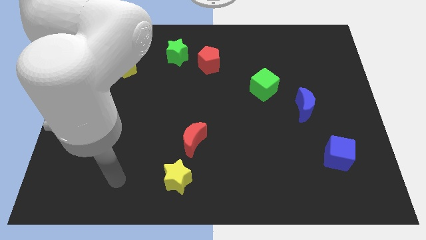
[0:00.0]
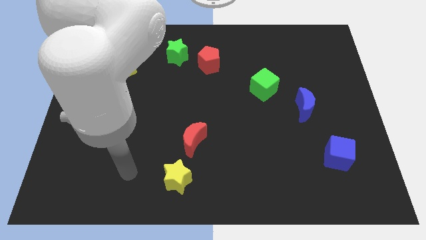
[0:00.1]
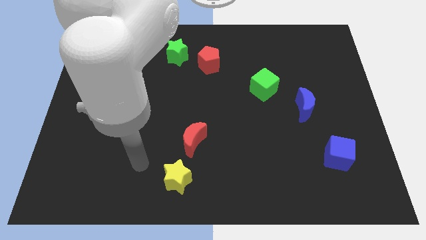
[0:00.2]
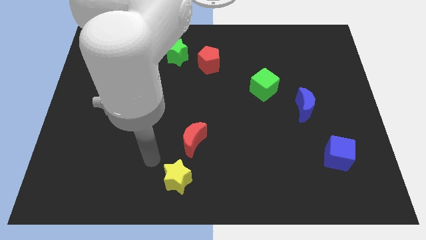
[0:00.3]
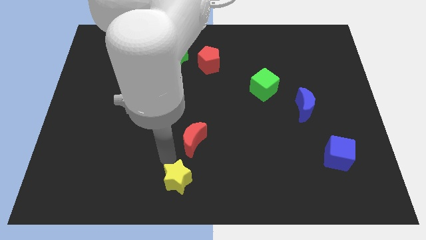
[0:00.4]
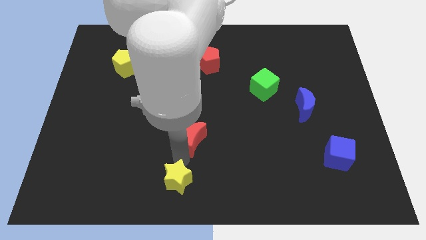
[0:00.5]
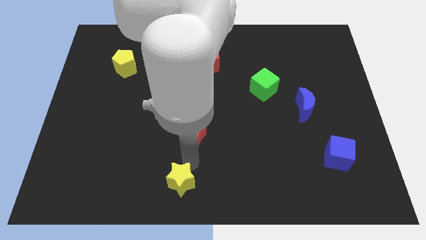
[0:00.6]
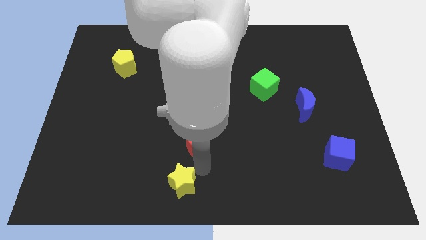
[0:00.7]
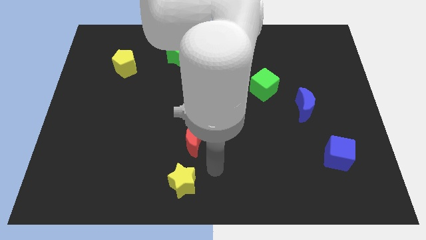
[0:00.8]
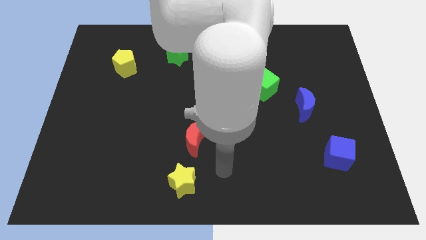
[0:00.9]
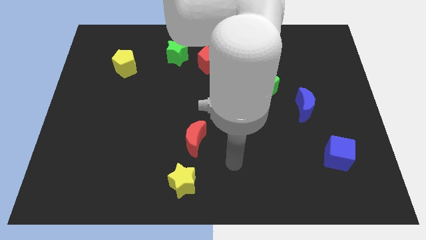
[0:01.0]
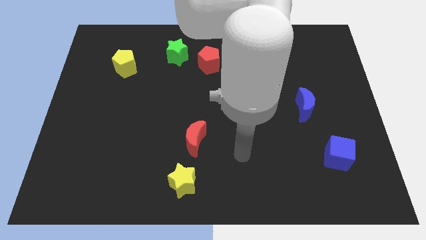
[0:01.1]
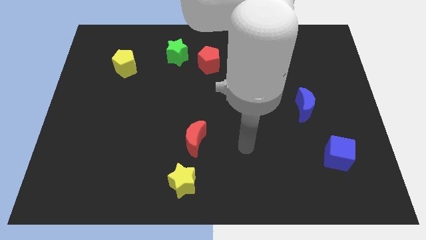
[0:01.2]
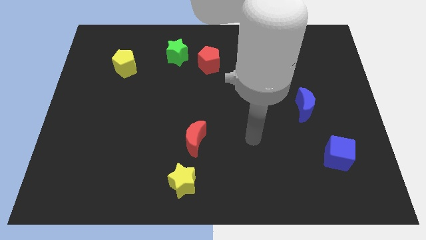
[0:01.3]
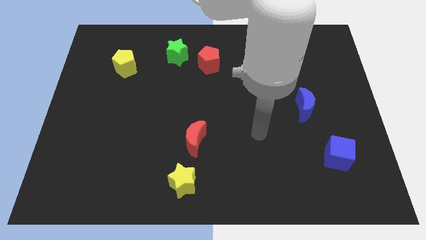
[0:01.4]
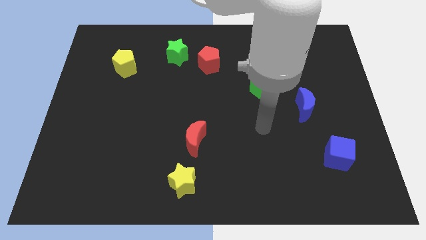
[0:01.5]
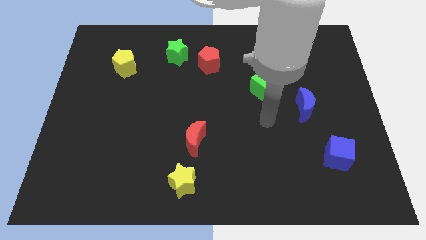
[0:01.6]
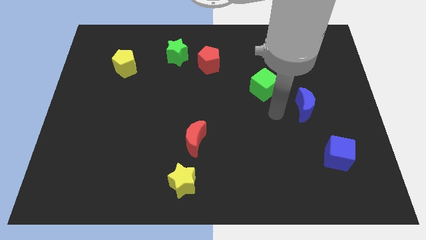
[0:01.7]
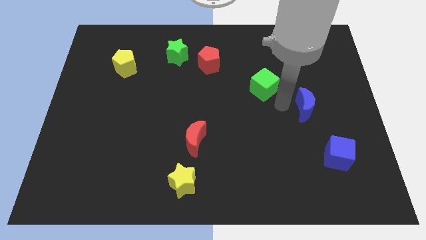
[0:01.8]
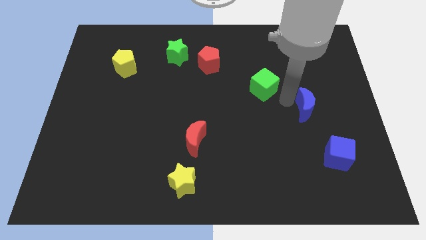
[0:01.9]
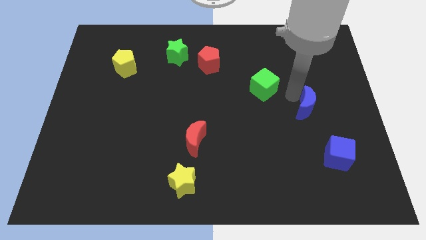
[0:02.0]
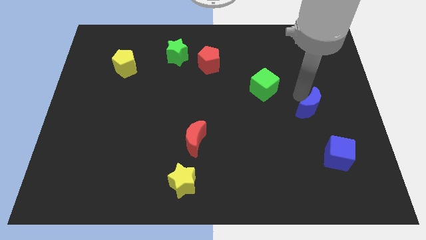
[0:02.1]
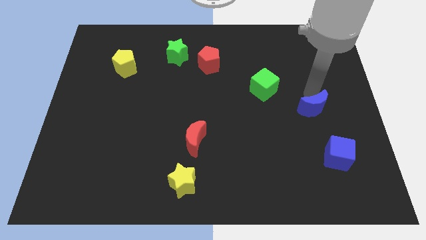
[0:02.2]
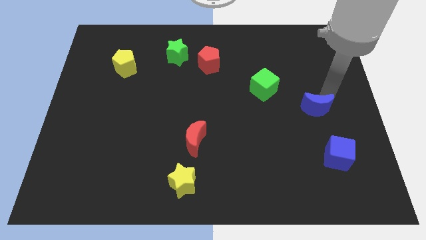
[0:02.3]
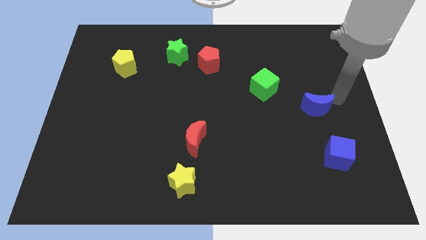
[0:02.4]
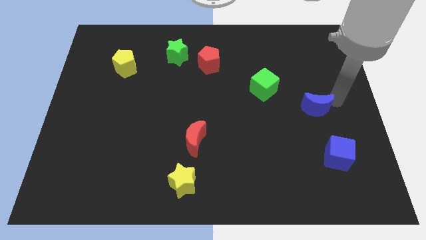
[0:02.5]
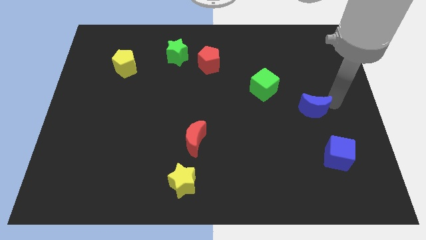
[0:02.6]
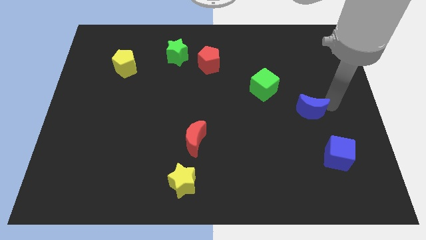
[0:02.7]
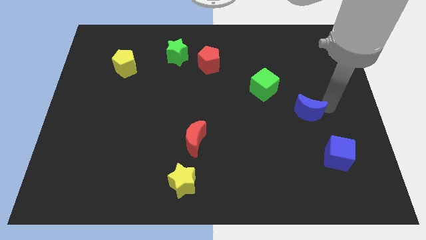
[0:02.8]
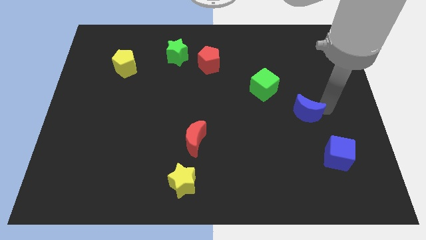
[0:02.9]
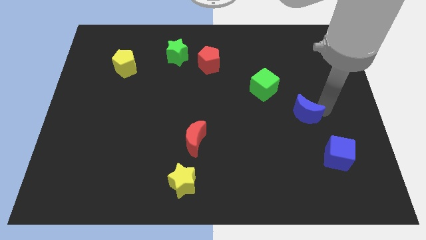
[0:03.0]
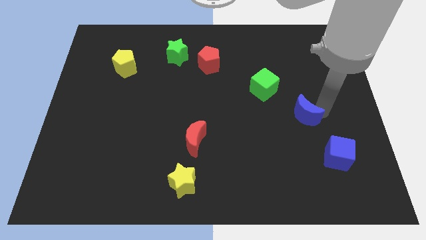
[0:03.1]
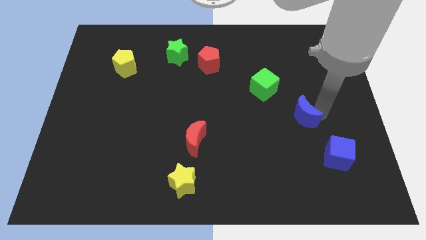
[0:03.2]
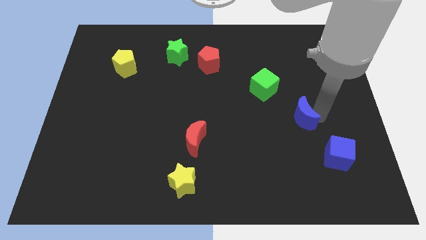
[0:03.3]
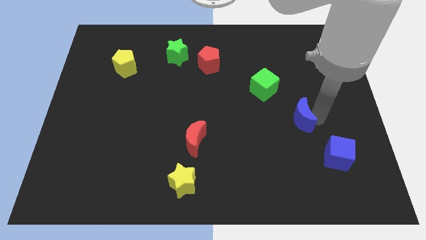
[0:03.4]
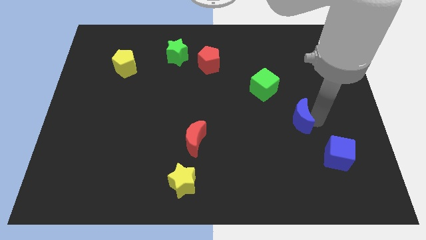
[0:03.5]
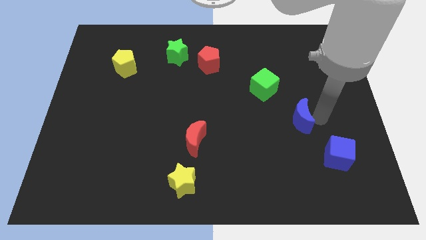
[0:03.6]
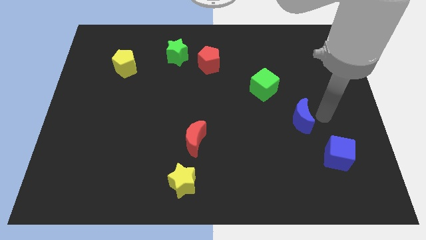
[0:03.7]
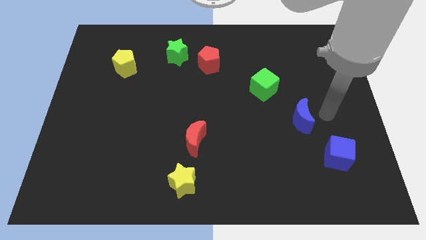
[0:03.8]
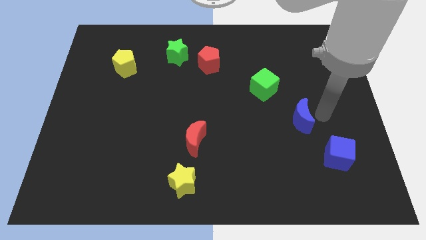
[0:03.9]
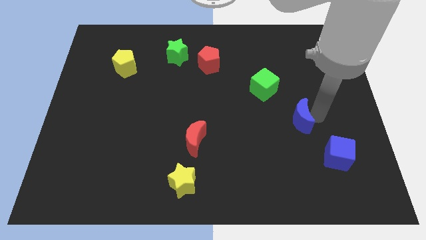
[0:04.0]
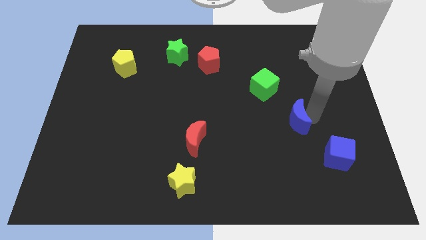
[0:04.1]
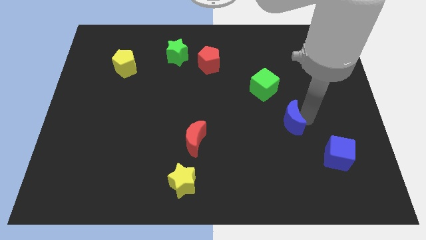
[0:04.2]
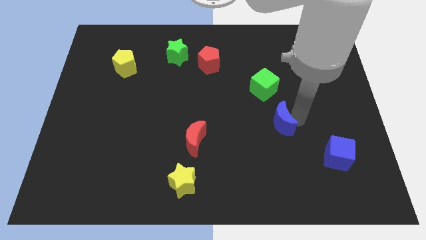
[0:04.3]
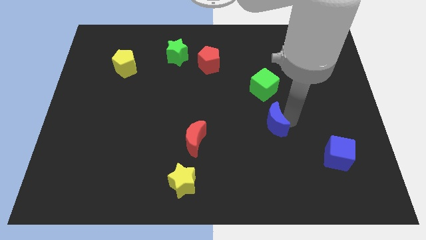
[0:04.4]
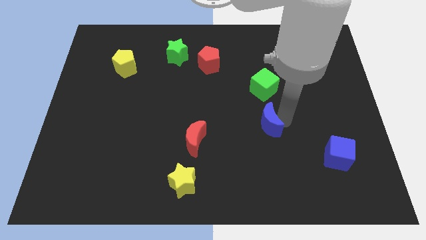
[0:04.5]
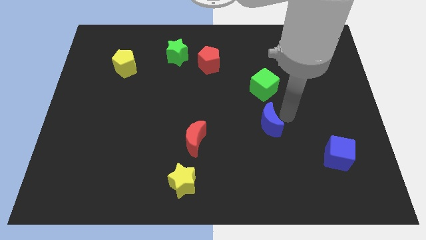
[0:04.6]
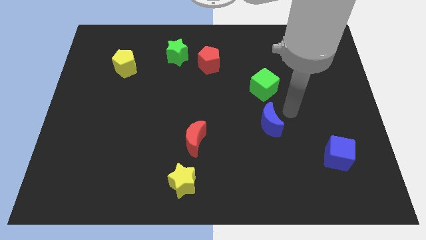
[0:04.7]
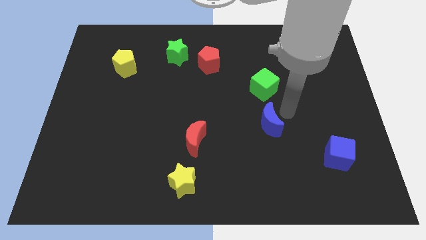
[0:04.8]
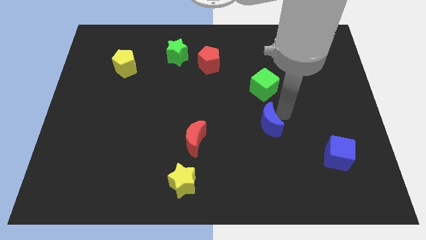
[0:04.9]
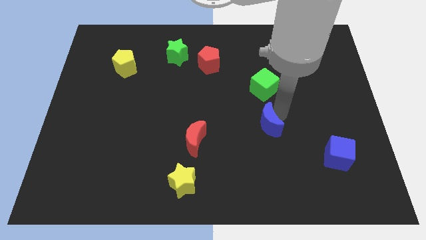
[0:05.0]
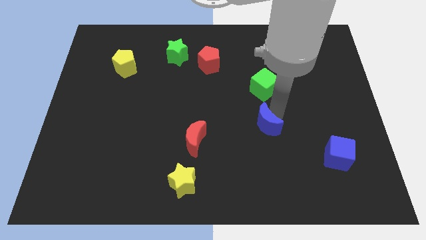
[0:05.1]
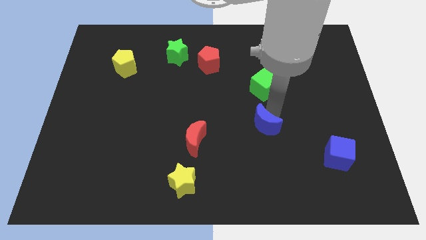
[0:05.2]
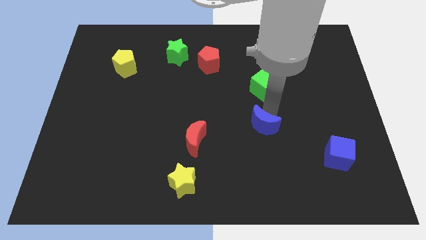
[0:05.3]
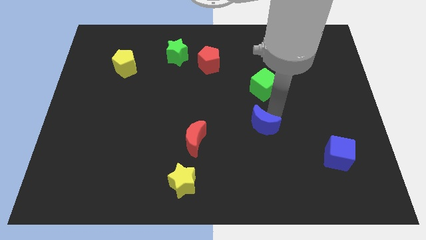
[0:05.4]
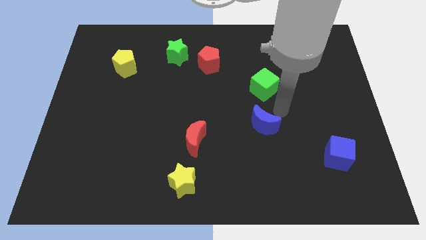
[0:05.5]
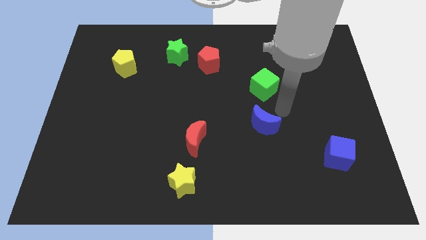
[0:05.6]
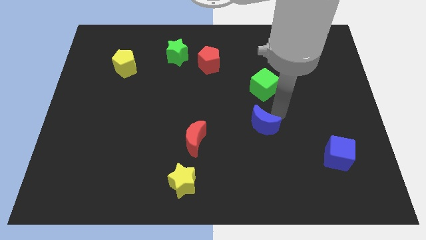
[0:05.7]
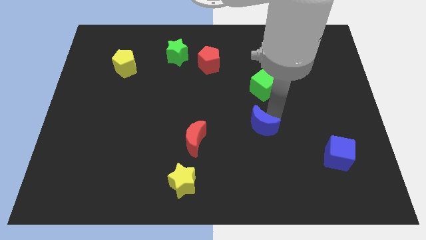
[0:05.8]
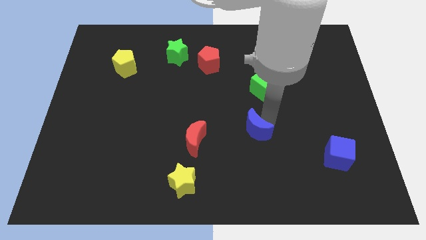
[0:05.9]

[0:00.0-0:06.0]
put the blue moon to the right of the red moon

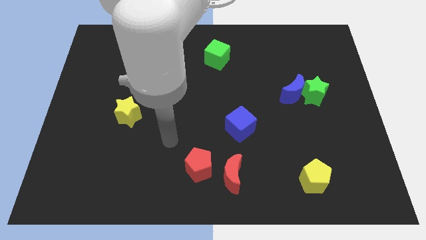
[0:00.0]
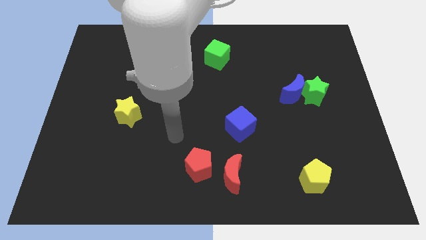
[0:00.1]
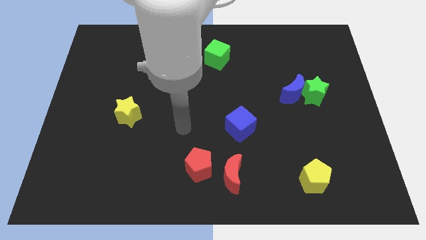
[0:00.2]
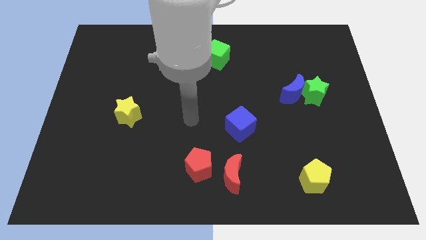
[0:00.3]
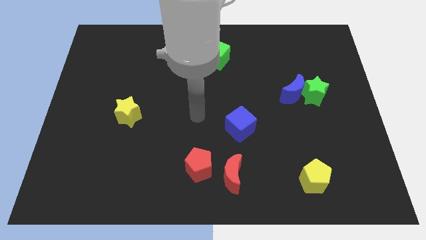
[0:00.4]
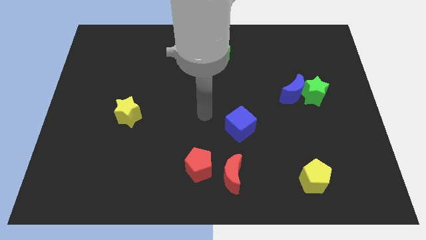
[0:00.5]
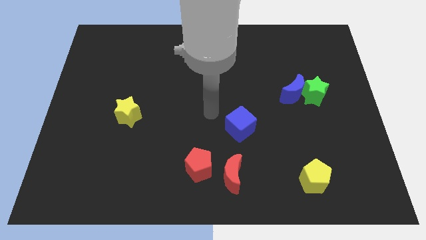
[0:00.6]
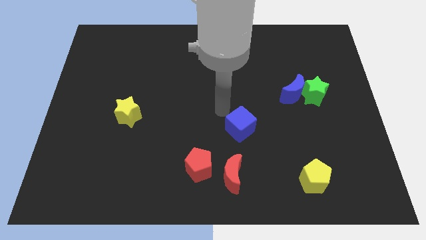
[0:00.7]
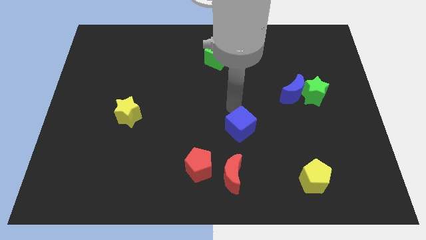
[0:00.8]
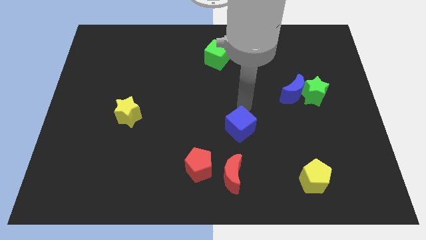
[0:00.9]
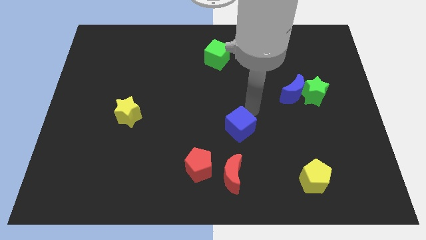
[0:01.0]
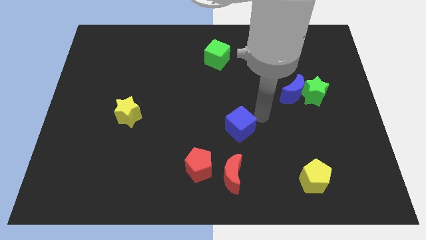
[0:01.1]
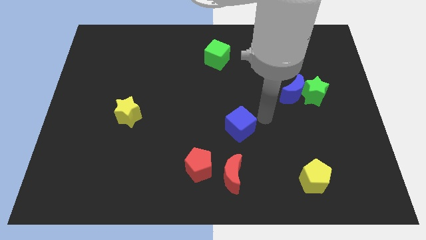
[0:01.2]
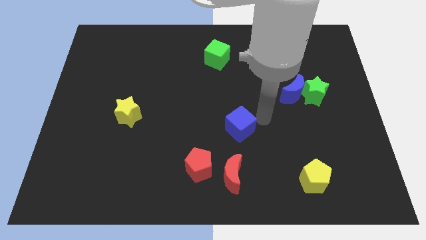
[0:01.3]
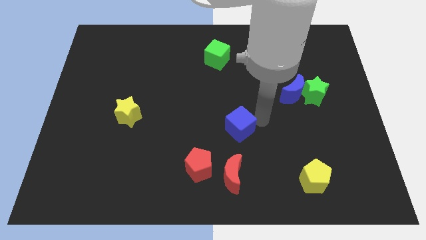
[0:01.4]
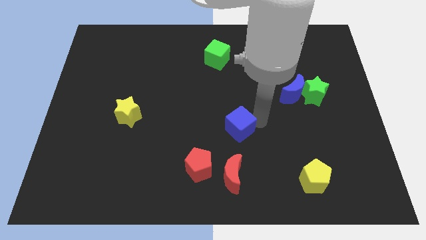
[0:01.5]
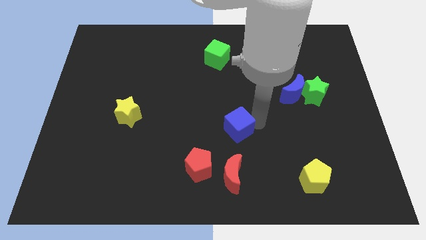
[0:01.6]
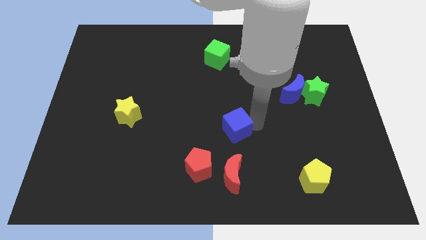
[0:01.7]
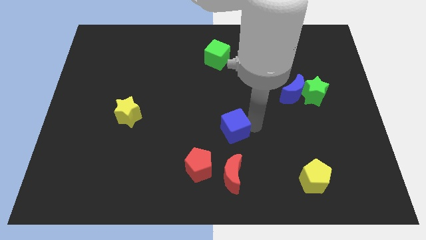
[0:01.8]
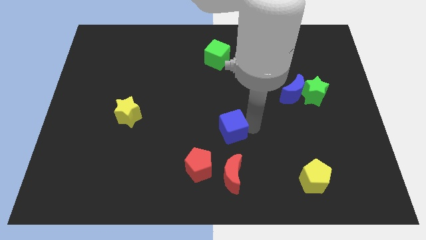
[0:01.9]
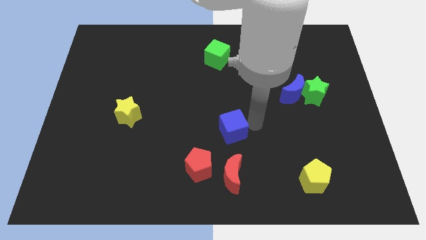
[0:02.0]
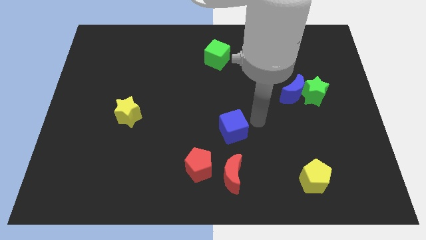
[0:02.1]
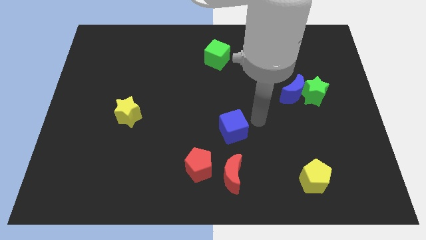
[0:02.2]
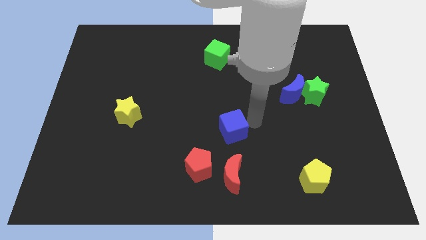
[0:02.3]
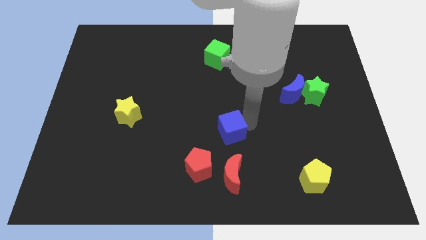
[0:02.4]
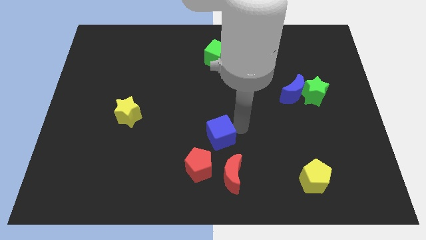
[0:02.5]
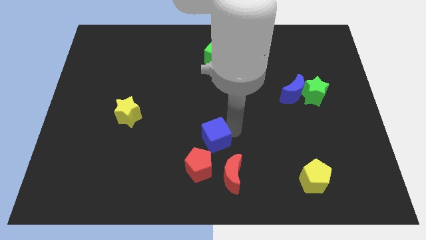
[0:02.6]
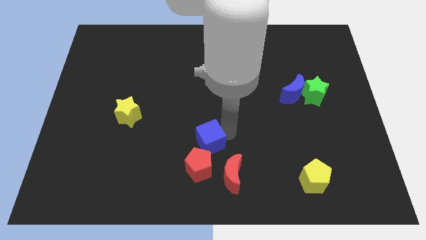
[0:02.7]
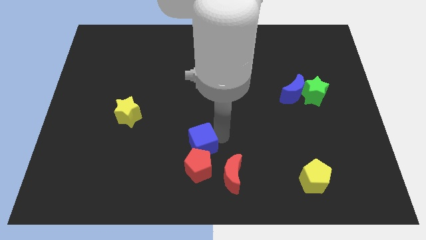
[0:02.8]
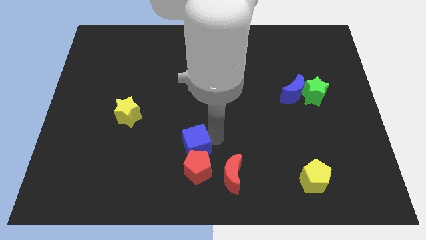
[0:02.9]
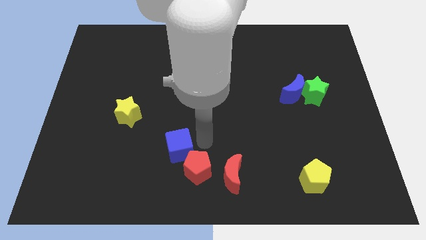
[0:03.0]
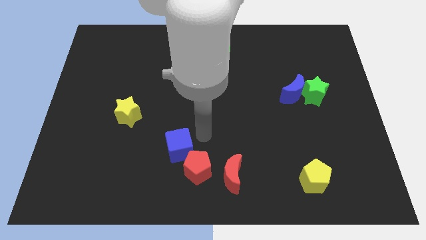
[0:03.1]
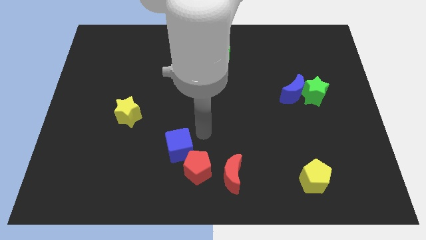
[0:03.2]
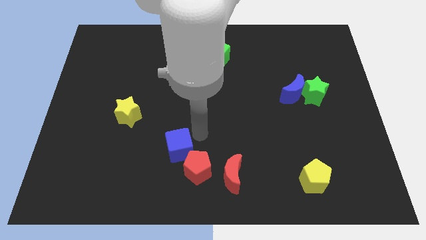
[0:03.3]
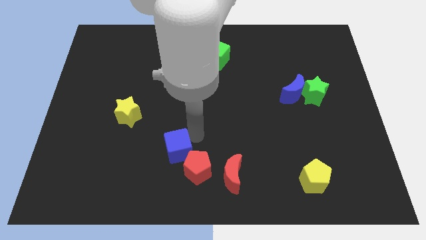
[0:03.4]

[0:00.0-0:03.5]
put the blue cube to the left of the red pentagon
